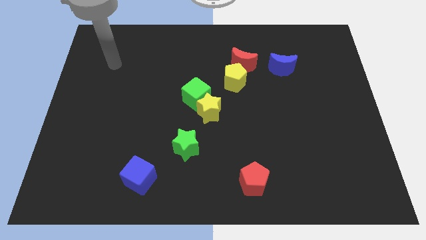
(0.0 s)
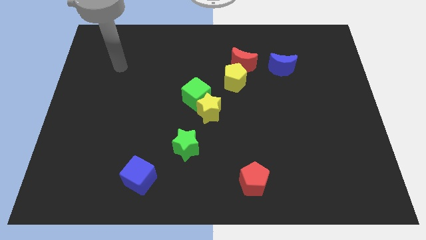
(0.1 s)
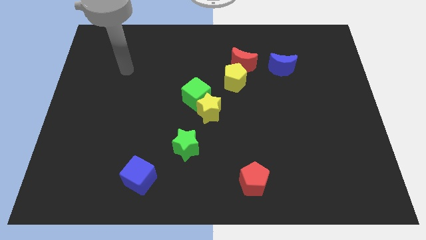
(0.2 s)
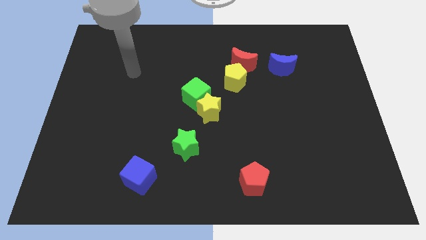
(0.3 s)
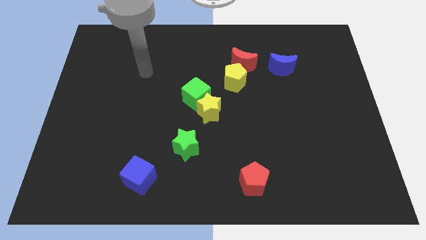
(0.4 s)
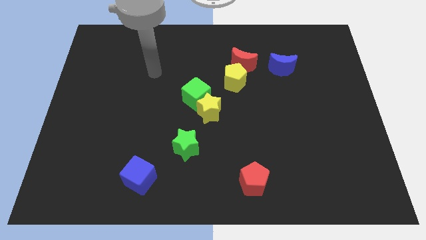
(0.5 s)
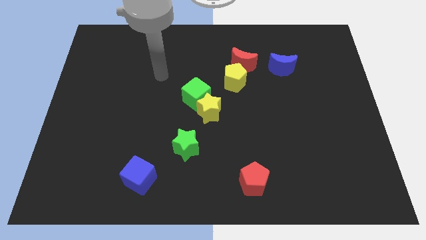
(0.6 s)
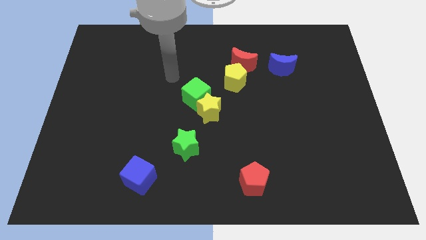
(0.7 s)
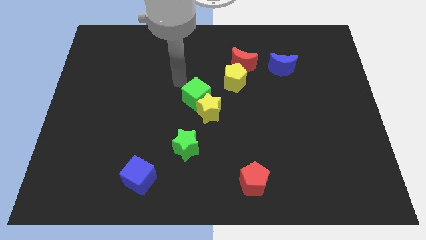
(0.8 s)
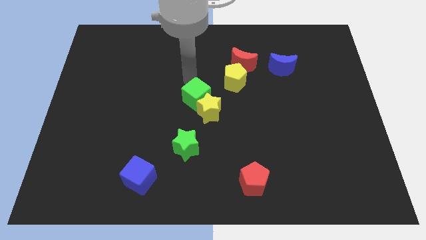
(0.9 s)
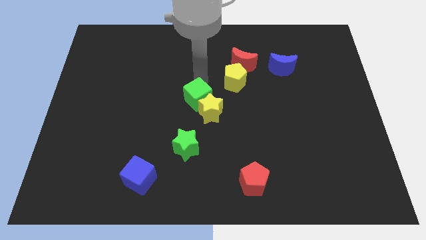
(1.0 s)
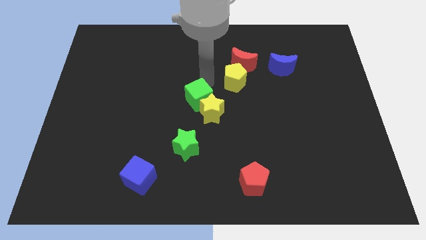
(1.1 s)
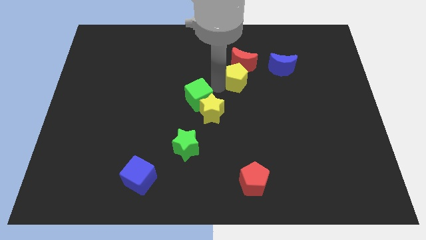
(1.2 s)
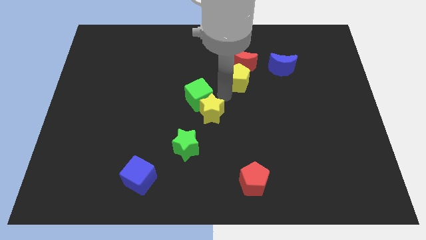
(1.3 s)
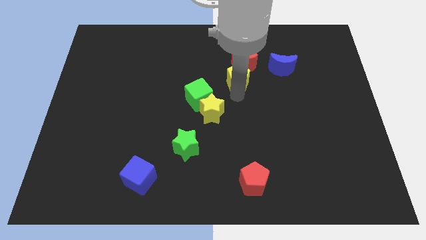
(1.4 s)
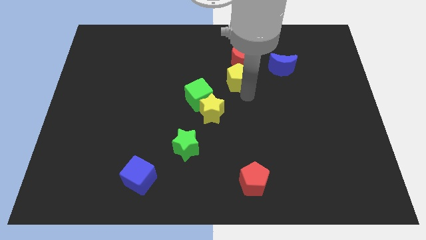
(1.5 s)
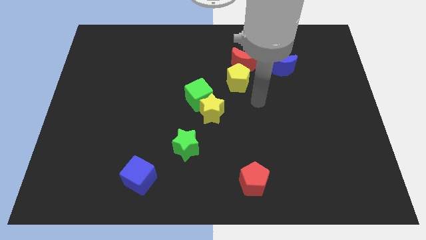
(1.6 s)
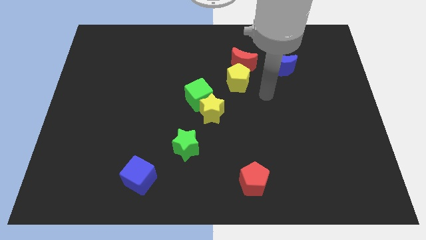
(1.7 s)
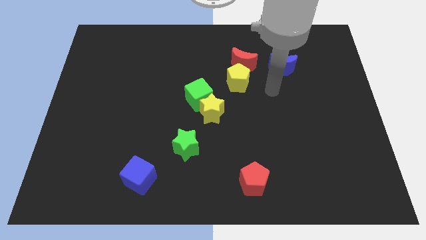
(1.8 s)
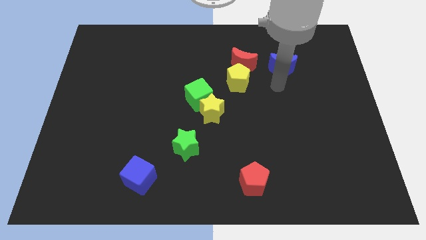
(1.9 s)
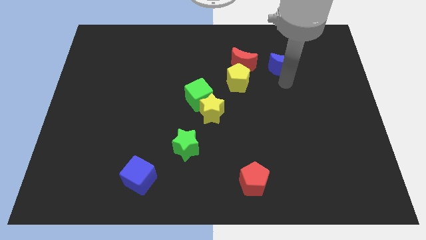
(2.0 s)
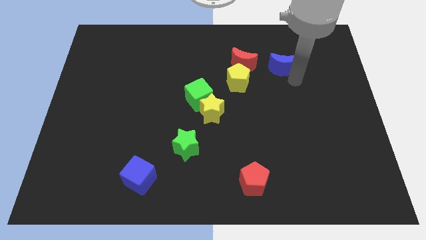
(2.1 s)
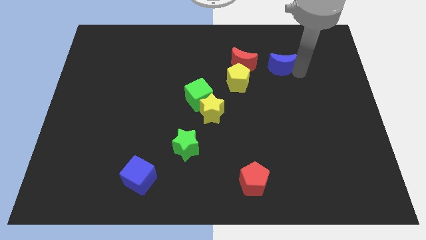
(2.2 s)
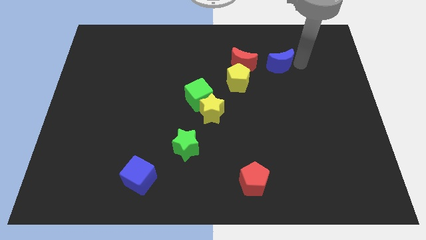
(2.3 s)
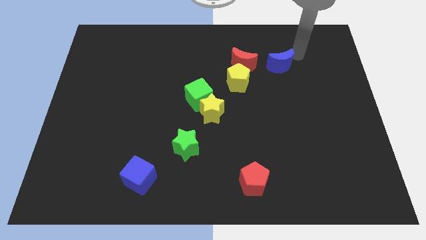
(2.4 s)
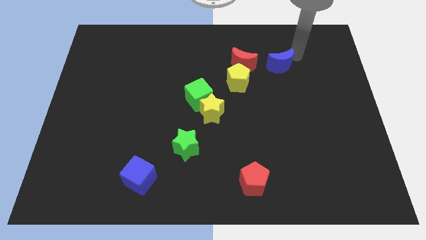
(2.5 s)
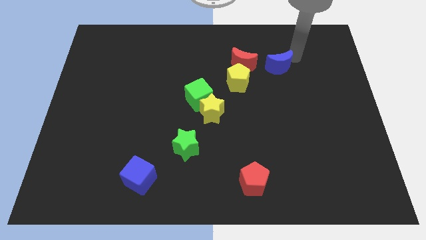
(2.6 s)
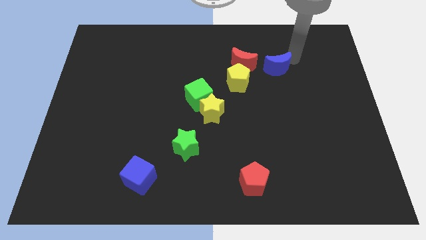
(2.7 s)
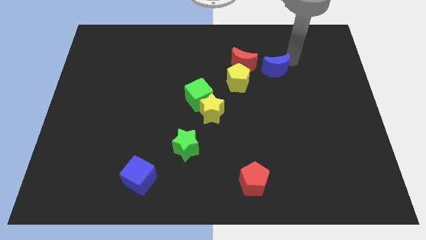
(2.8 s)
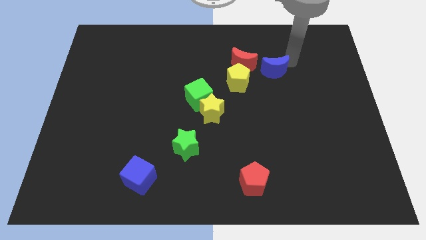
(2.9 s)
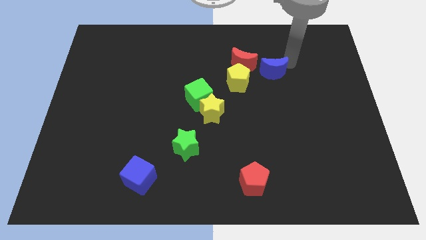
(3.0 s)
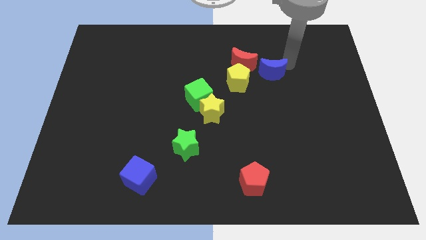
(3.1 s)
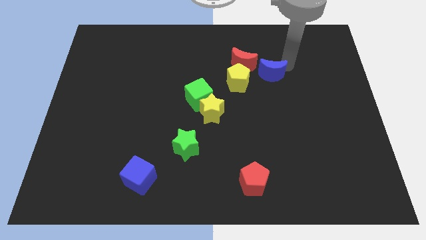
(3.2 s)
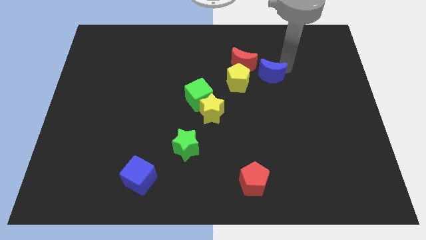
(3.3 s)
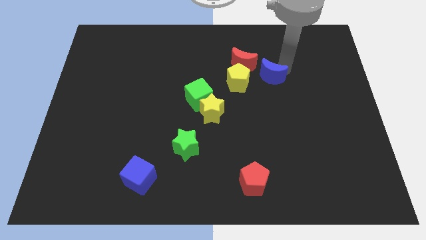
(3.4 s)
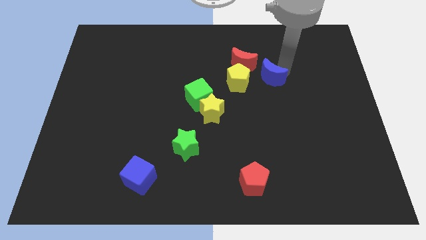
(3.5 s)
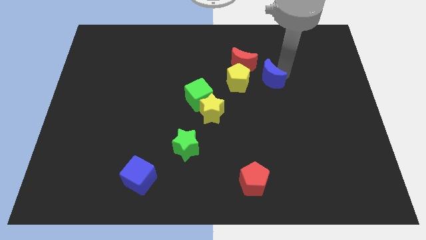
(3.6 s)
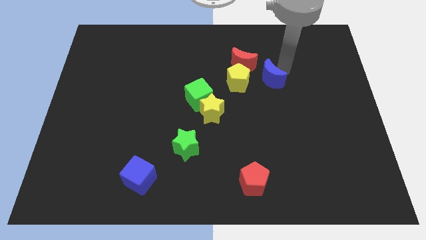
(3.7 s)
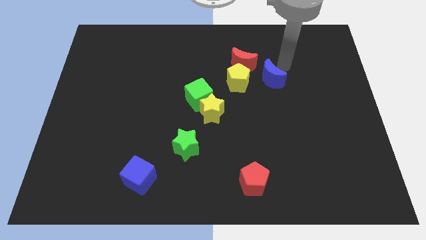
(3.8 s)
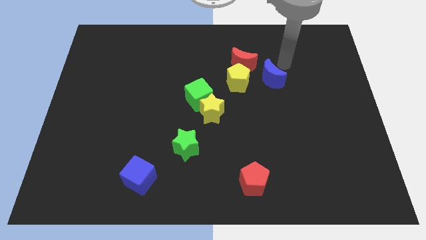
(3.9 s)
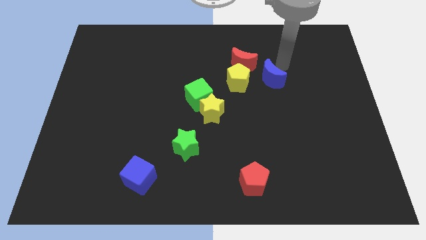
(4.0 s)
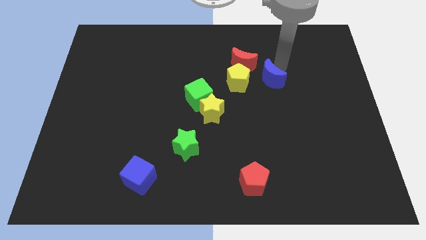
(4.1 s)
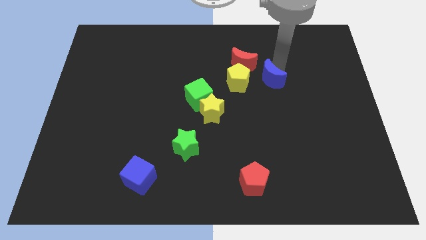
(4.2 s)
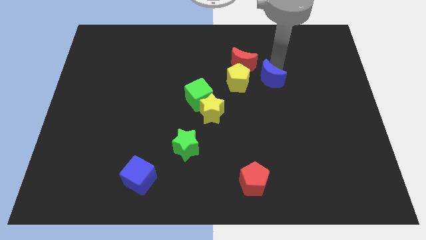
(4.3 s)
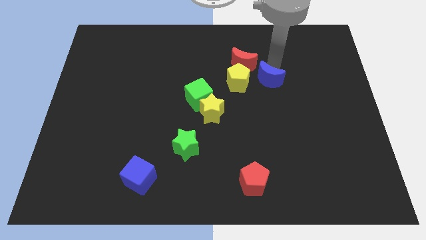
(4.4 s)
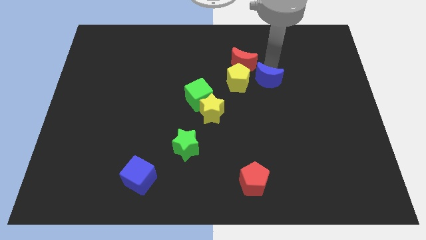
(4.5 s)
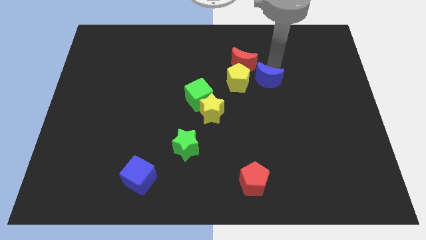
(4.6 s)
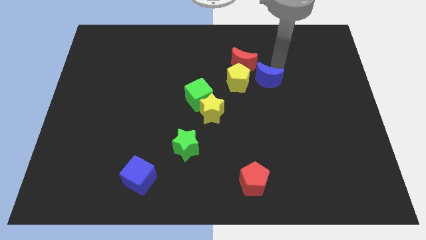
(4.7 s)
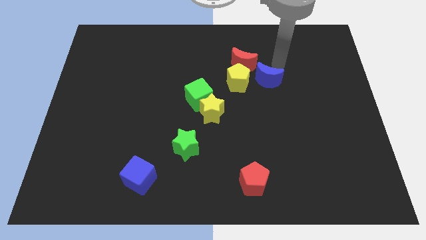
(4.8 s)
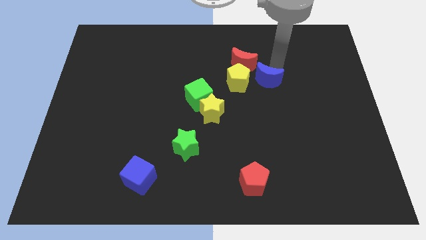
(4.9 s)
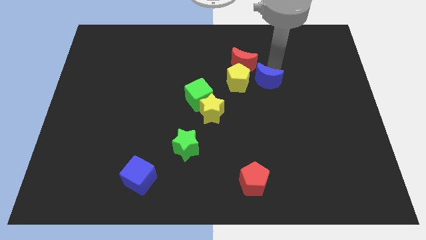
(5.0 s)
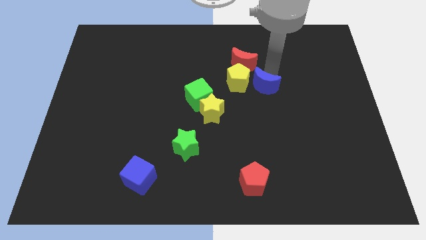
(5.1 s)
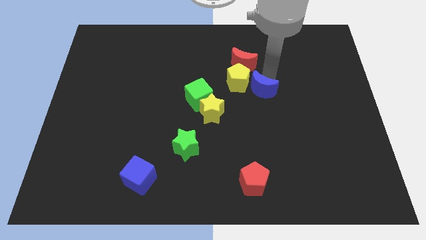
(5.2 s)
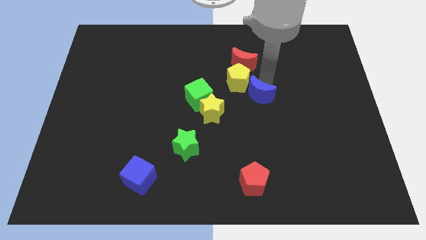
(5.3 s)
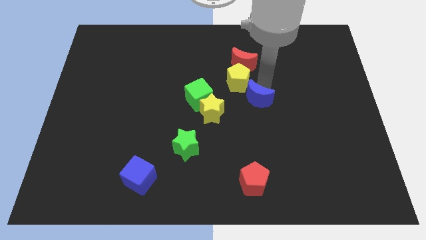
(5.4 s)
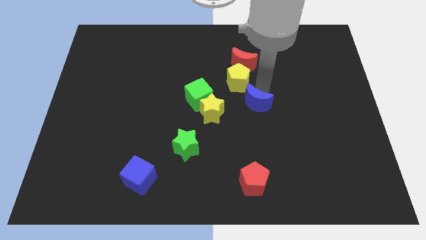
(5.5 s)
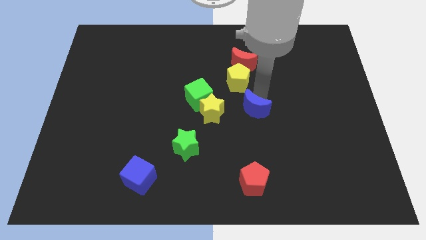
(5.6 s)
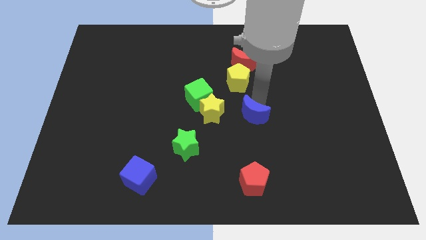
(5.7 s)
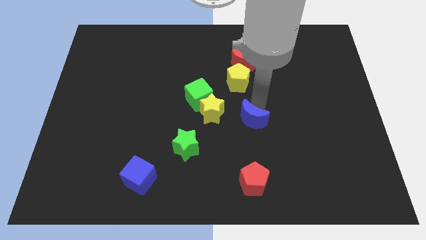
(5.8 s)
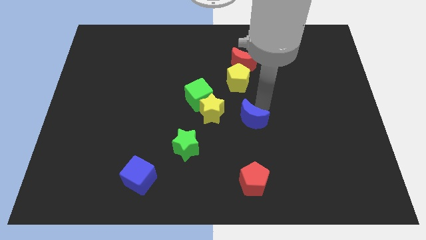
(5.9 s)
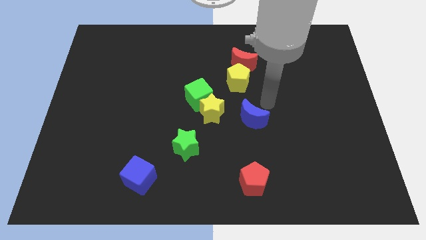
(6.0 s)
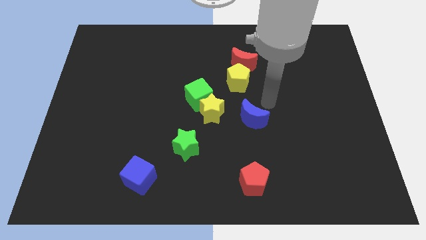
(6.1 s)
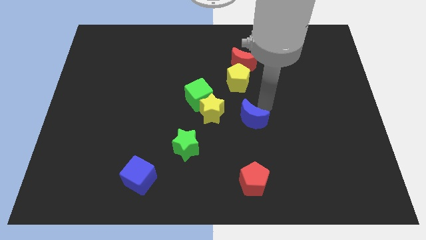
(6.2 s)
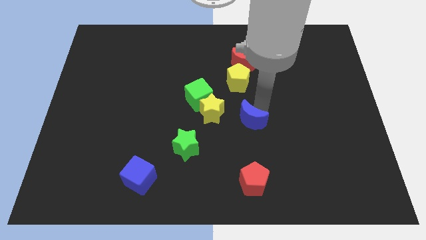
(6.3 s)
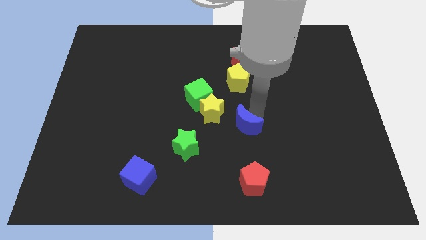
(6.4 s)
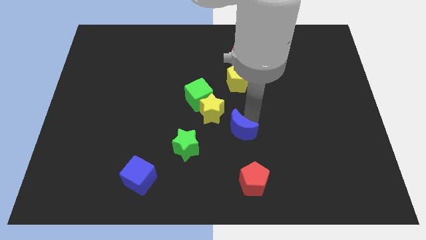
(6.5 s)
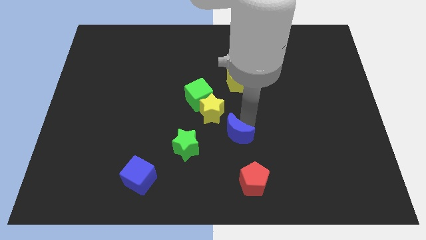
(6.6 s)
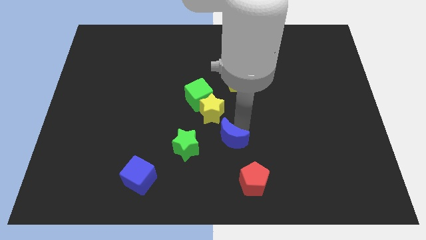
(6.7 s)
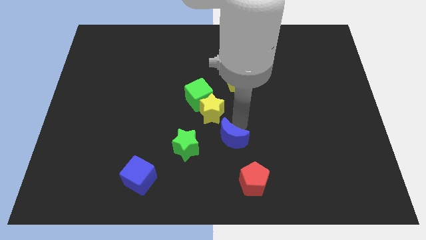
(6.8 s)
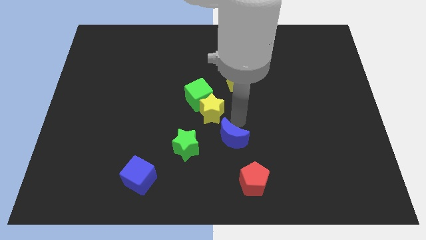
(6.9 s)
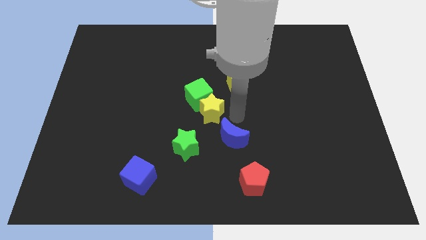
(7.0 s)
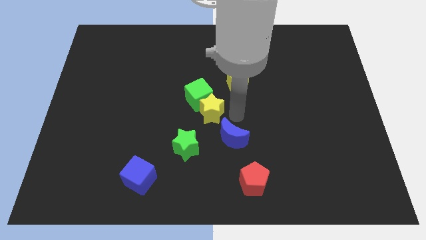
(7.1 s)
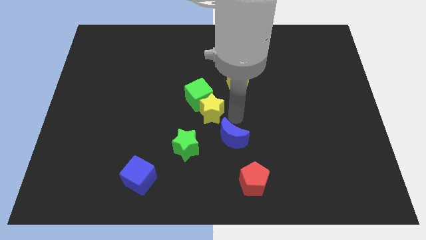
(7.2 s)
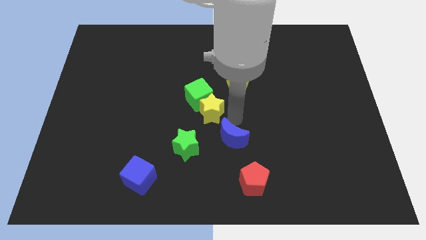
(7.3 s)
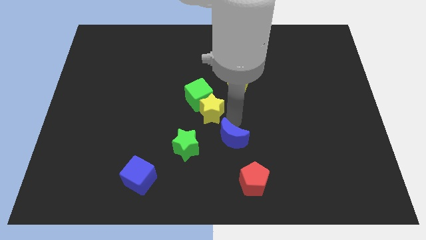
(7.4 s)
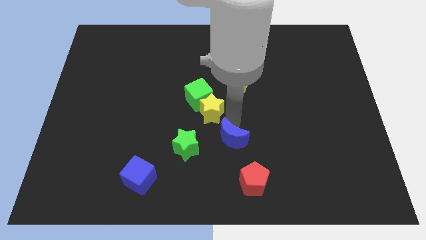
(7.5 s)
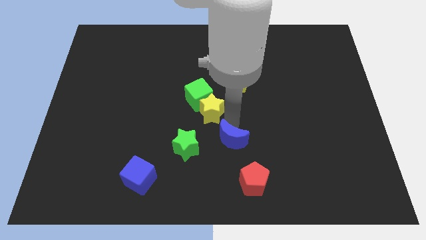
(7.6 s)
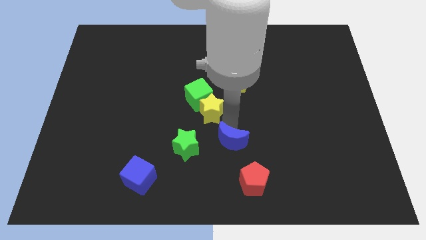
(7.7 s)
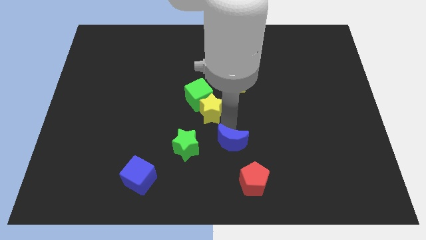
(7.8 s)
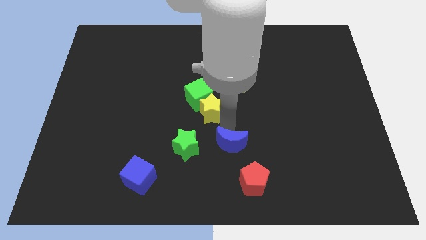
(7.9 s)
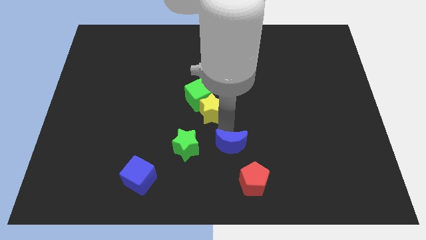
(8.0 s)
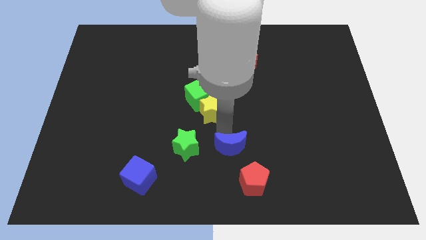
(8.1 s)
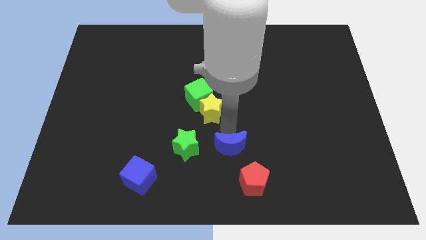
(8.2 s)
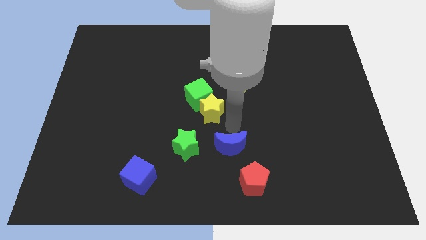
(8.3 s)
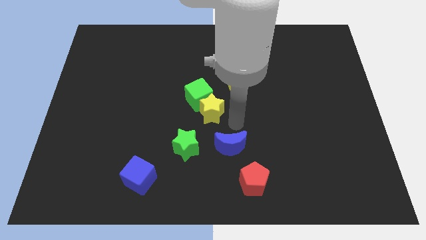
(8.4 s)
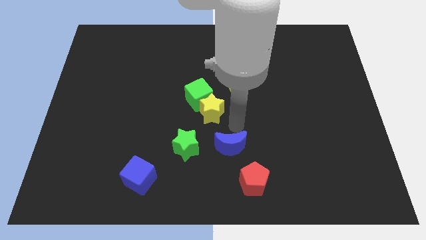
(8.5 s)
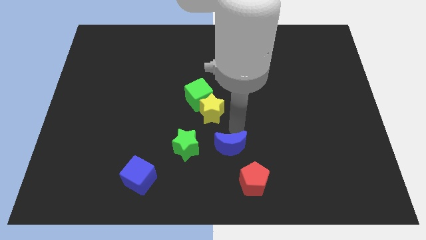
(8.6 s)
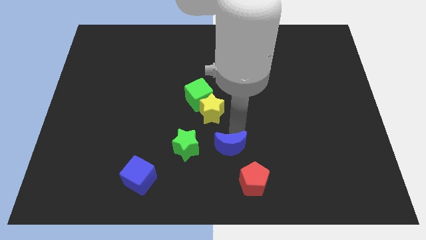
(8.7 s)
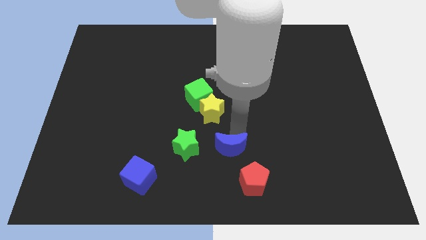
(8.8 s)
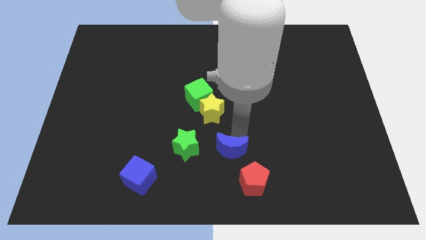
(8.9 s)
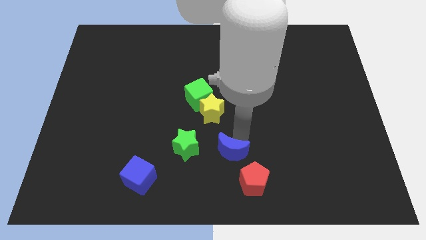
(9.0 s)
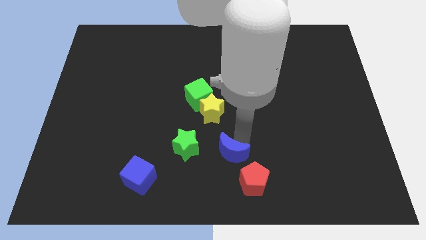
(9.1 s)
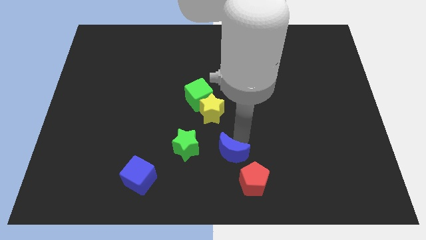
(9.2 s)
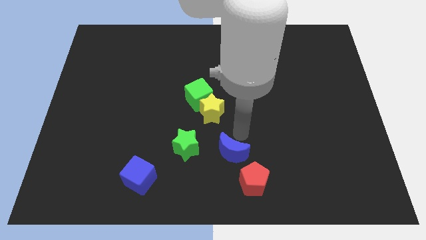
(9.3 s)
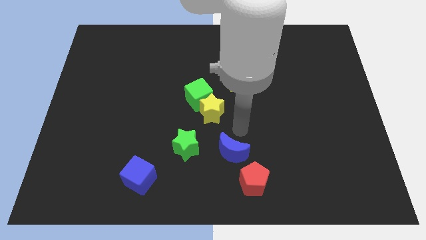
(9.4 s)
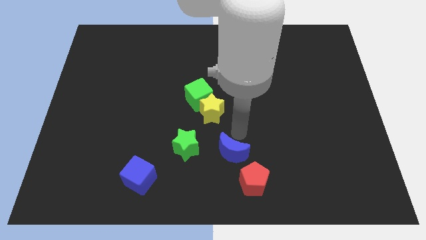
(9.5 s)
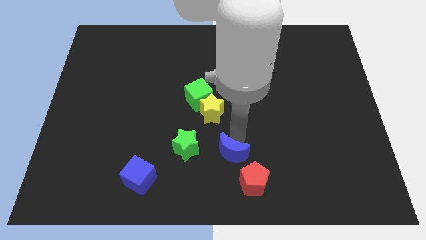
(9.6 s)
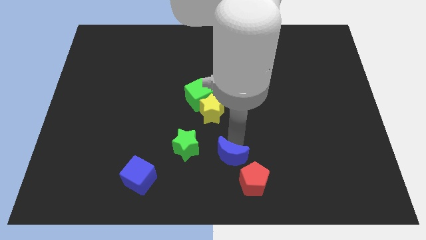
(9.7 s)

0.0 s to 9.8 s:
push the blue moon to the bottom
